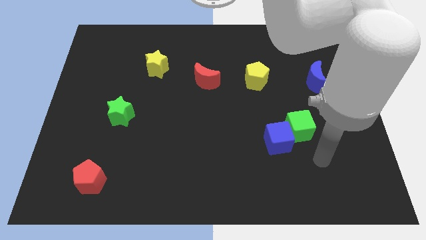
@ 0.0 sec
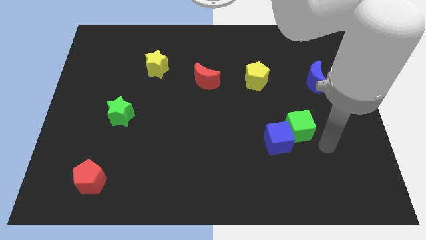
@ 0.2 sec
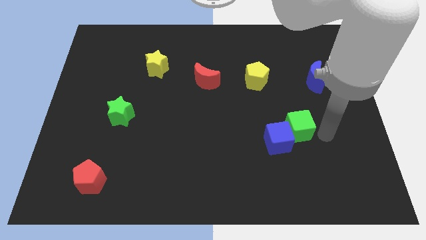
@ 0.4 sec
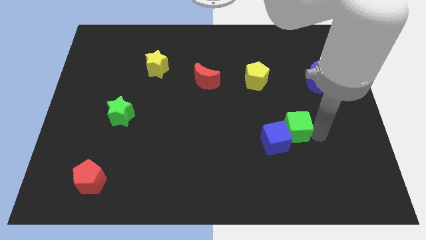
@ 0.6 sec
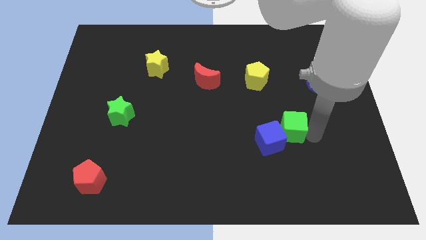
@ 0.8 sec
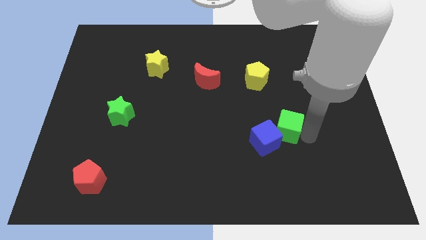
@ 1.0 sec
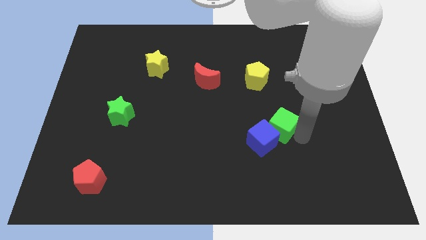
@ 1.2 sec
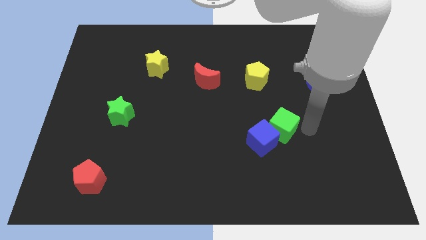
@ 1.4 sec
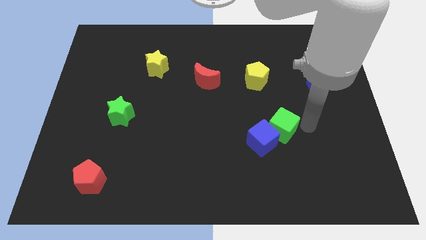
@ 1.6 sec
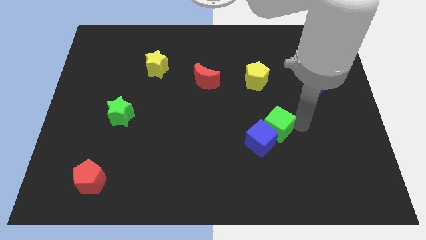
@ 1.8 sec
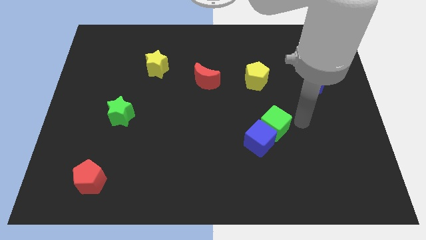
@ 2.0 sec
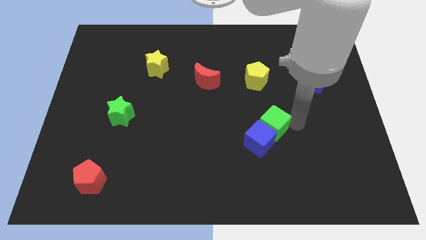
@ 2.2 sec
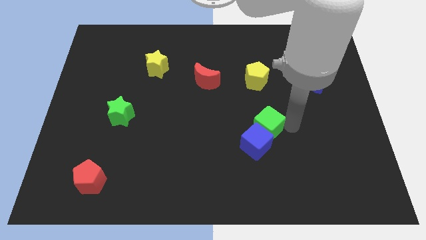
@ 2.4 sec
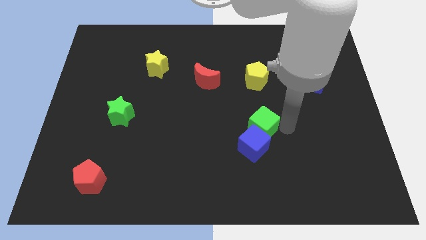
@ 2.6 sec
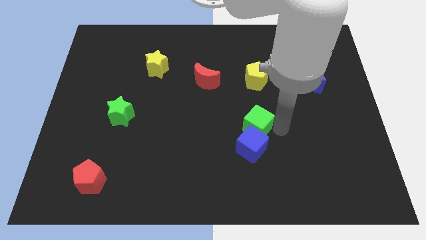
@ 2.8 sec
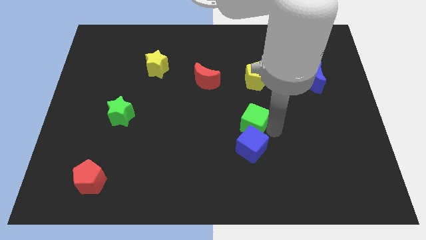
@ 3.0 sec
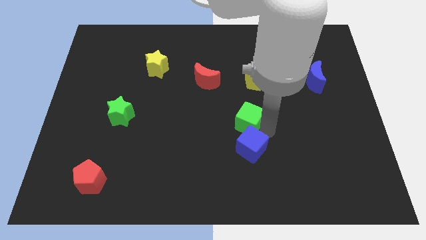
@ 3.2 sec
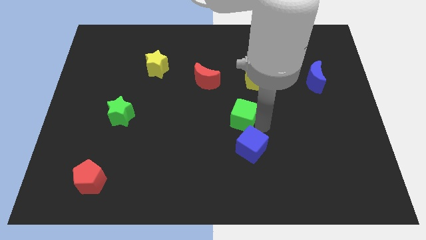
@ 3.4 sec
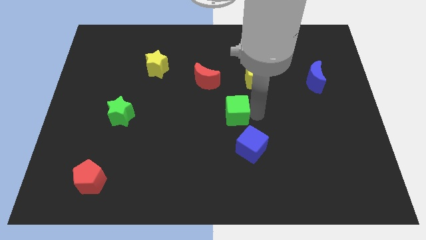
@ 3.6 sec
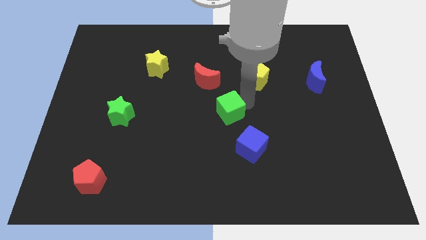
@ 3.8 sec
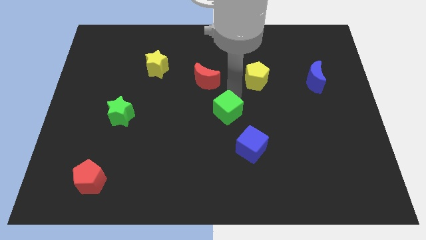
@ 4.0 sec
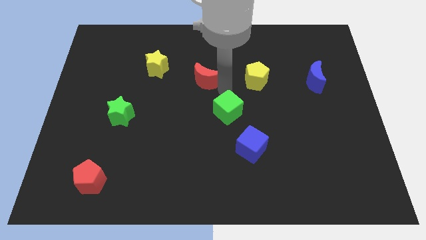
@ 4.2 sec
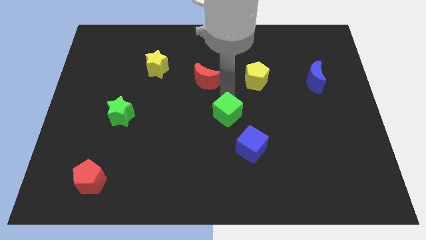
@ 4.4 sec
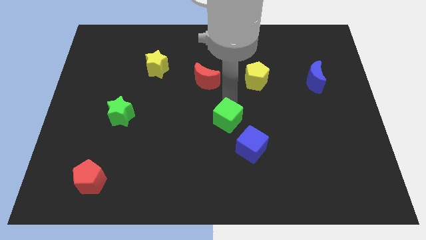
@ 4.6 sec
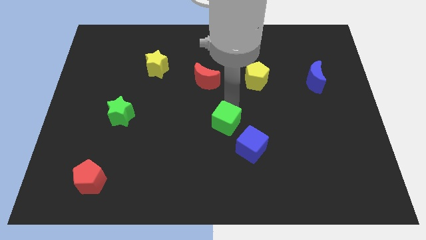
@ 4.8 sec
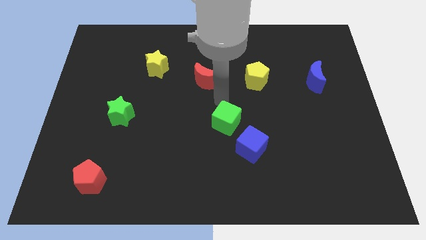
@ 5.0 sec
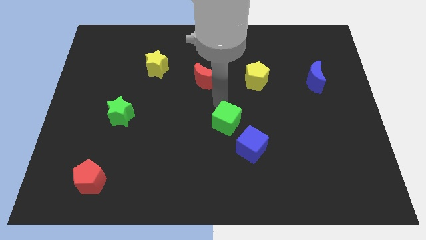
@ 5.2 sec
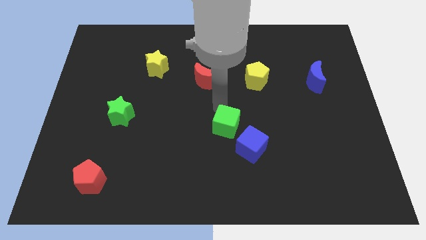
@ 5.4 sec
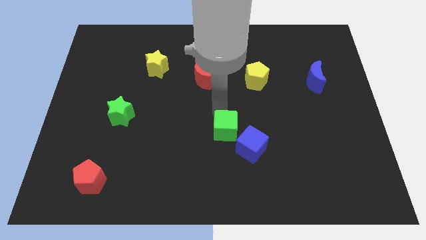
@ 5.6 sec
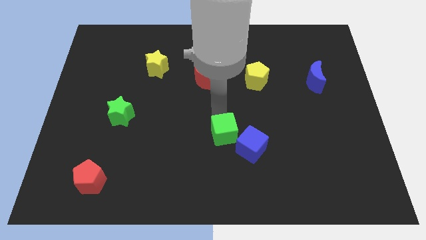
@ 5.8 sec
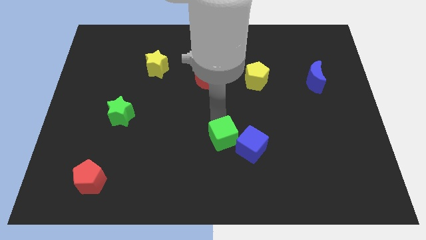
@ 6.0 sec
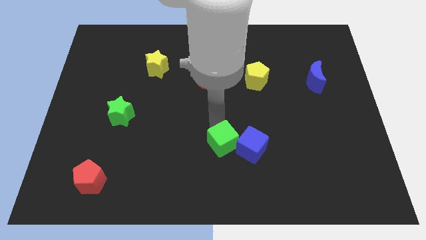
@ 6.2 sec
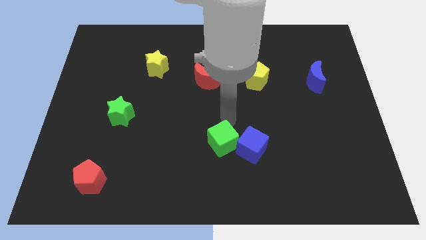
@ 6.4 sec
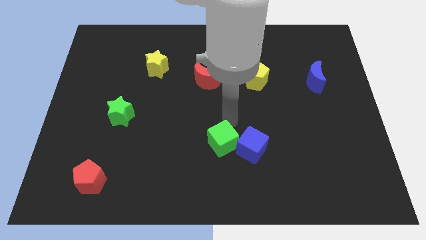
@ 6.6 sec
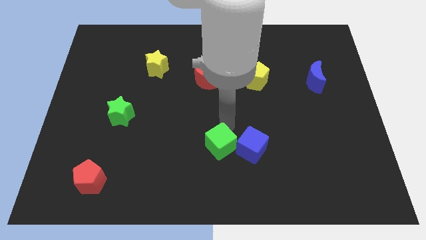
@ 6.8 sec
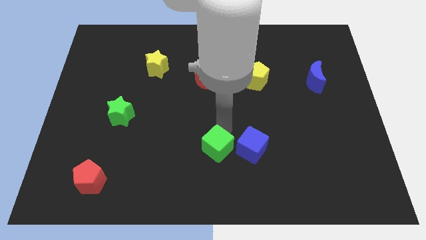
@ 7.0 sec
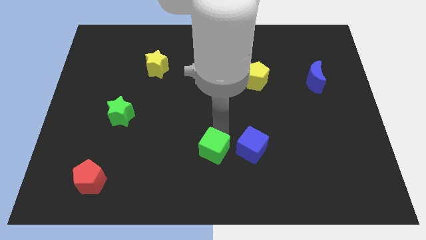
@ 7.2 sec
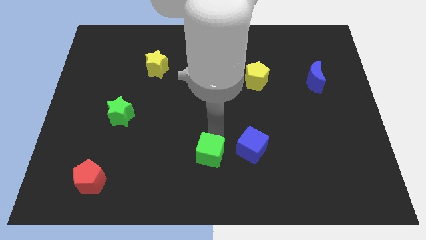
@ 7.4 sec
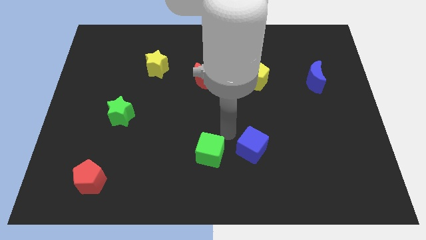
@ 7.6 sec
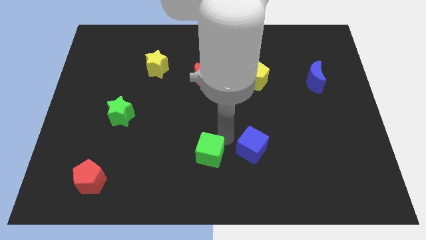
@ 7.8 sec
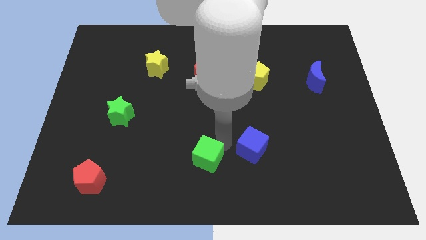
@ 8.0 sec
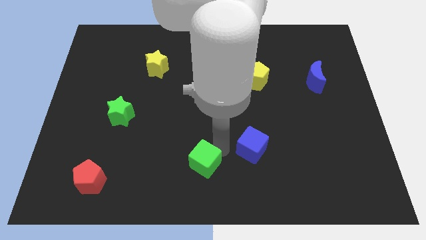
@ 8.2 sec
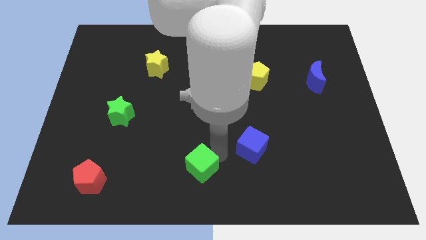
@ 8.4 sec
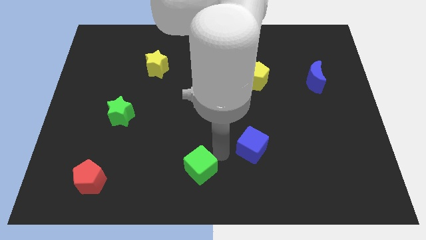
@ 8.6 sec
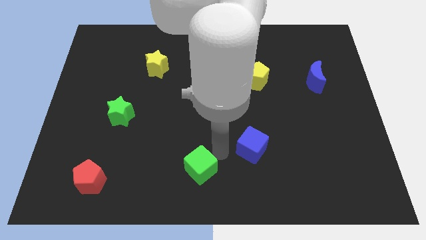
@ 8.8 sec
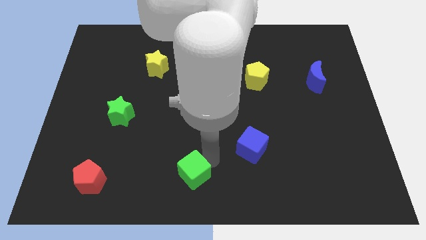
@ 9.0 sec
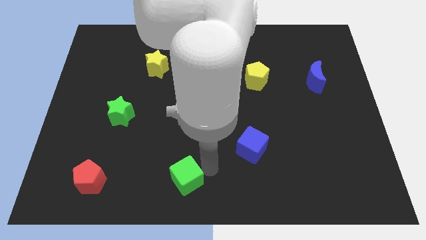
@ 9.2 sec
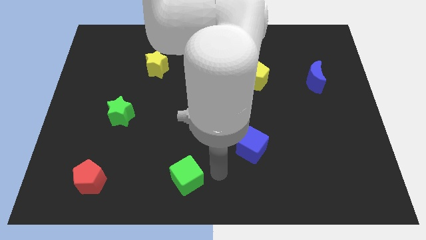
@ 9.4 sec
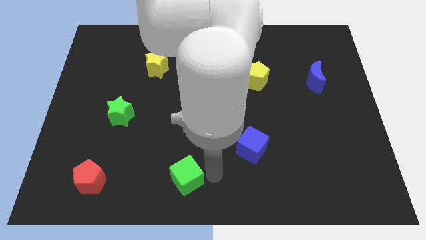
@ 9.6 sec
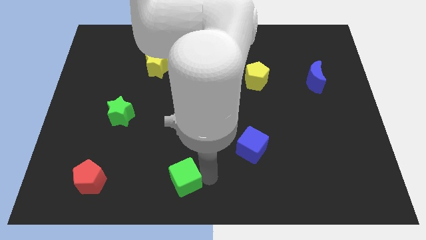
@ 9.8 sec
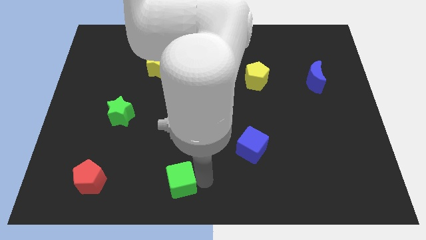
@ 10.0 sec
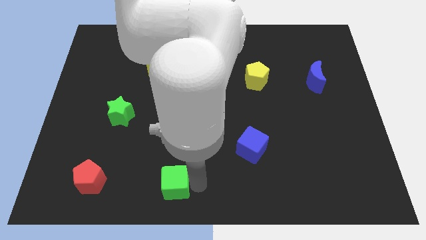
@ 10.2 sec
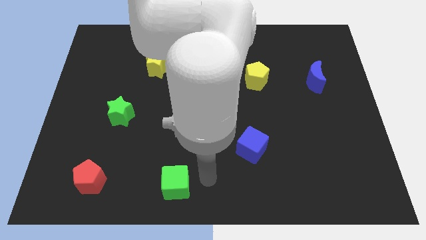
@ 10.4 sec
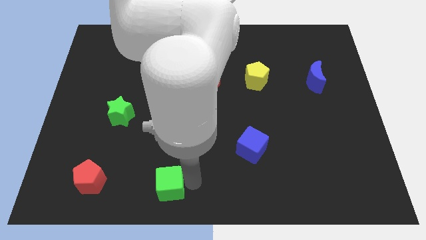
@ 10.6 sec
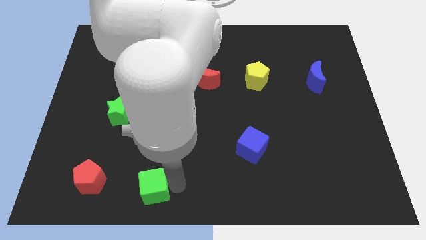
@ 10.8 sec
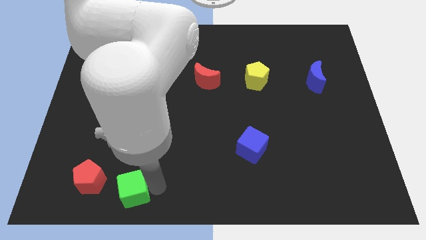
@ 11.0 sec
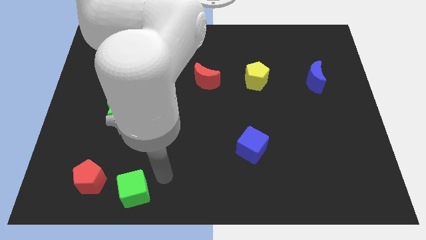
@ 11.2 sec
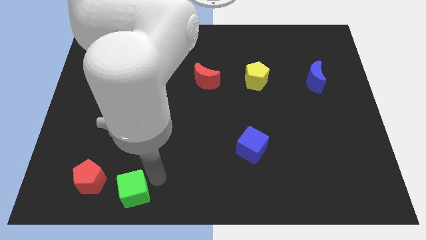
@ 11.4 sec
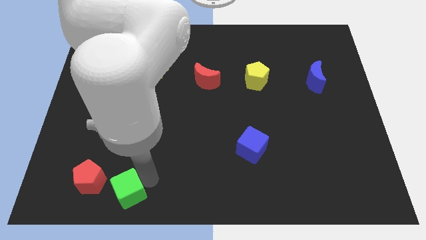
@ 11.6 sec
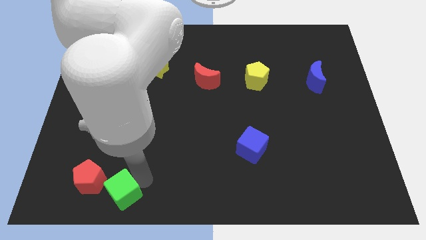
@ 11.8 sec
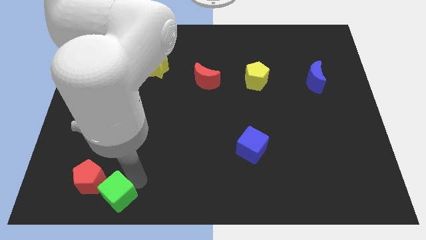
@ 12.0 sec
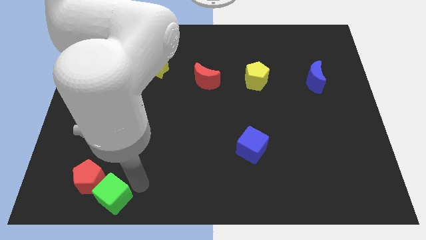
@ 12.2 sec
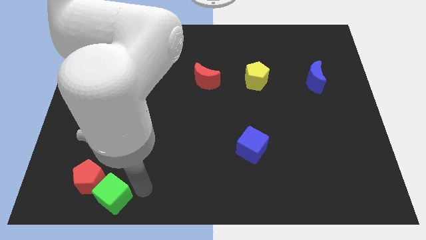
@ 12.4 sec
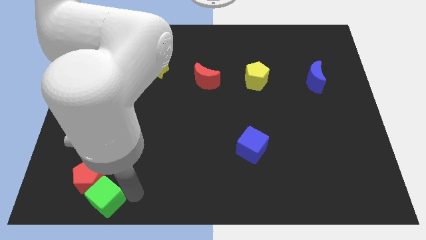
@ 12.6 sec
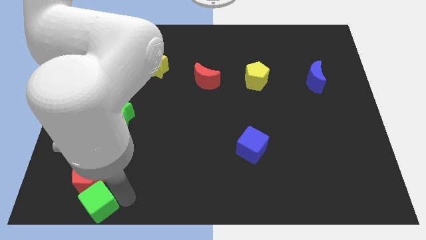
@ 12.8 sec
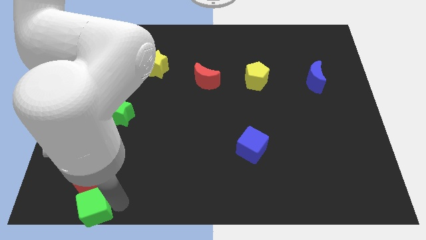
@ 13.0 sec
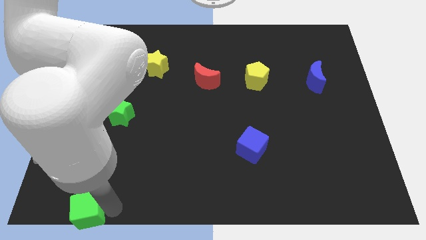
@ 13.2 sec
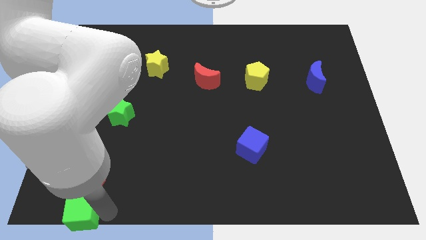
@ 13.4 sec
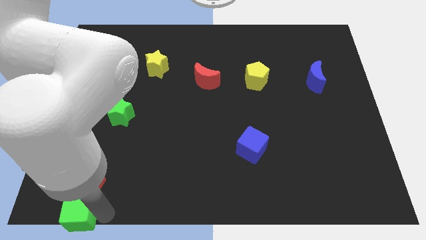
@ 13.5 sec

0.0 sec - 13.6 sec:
push the green cube to the bottom left corner

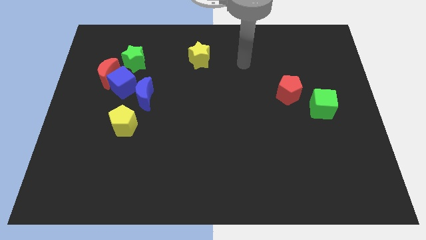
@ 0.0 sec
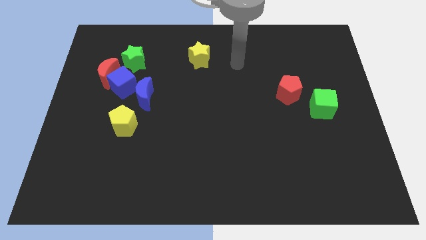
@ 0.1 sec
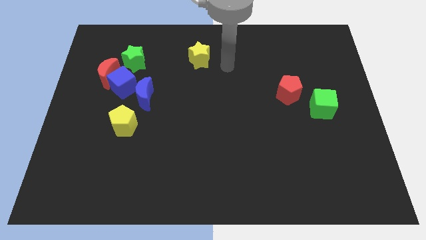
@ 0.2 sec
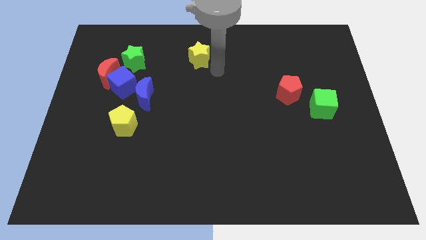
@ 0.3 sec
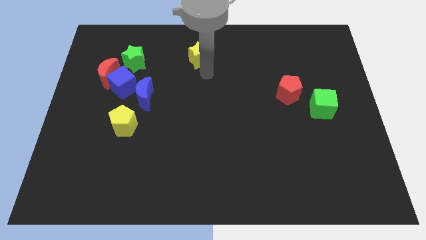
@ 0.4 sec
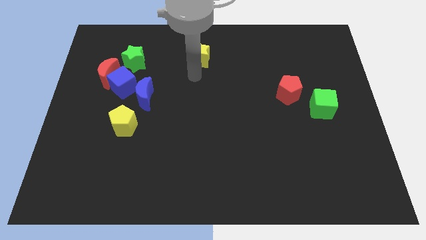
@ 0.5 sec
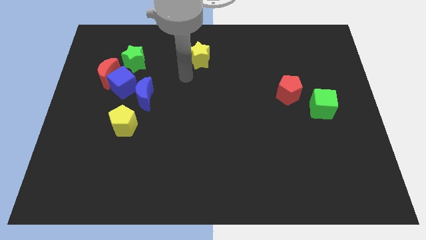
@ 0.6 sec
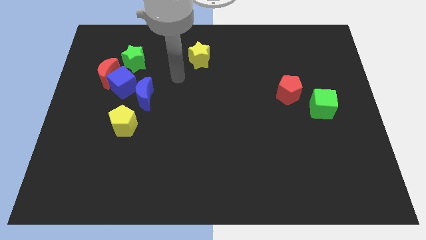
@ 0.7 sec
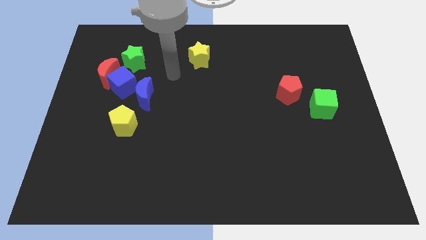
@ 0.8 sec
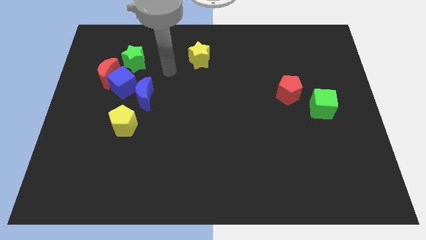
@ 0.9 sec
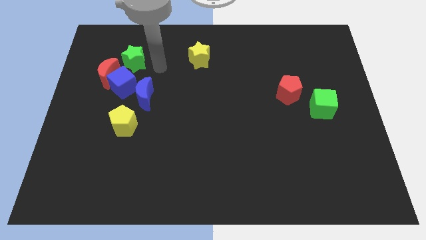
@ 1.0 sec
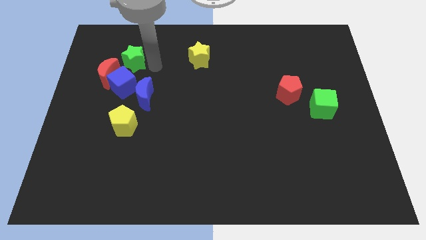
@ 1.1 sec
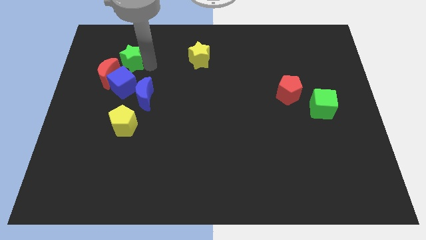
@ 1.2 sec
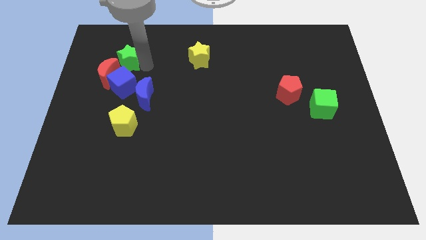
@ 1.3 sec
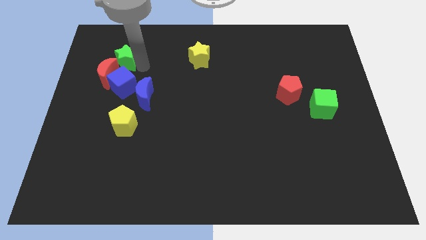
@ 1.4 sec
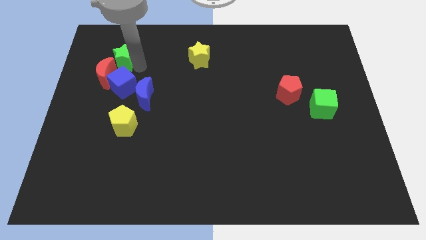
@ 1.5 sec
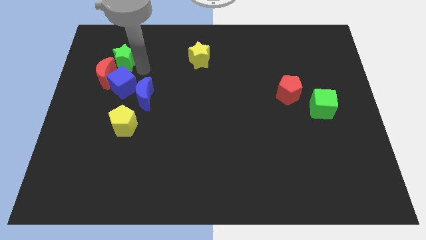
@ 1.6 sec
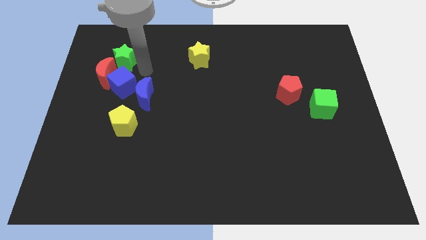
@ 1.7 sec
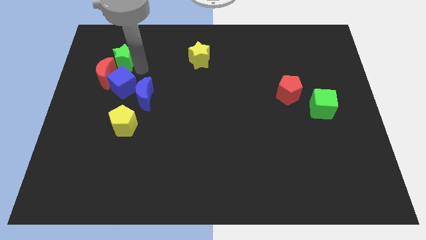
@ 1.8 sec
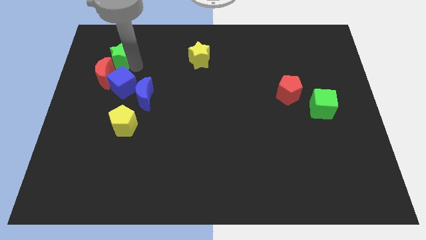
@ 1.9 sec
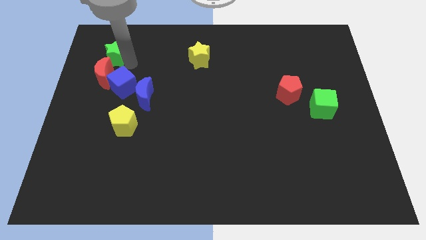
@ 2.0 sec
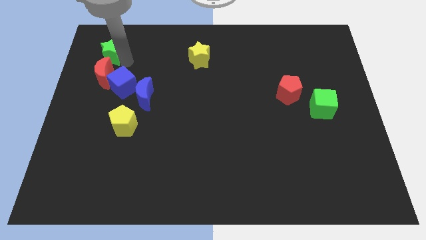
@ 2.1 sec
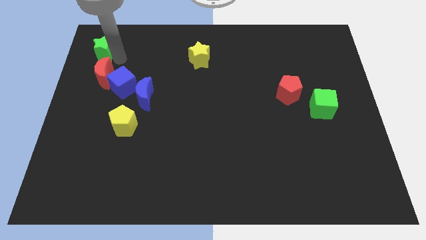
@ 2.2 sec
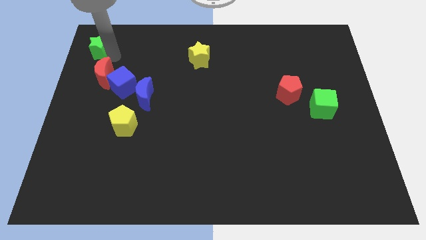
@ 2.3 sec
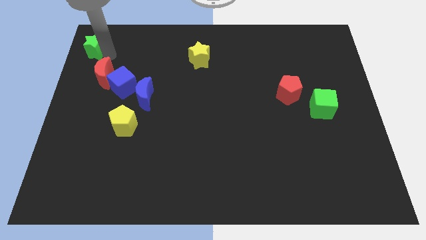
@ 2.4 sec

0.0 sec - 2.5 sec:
push the green star to the top left corner
